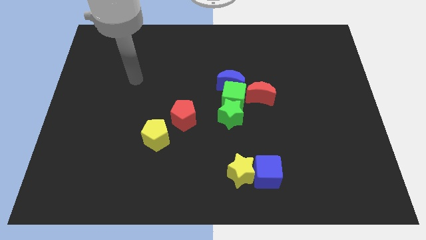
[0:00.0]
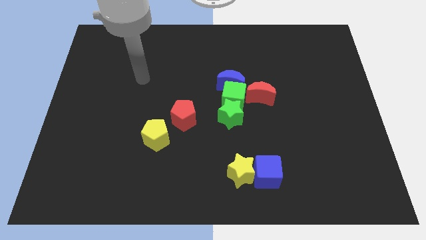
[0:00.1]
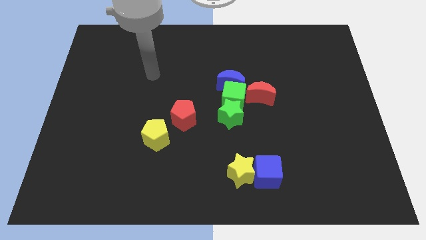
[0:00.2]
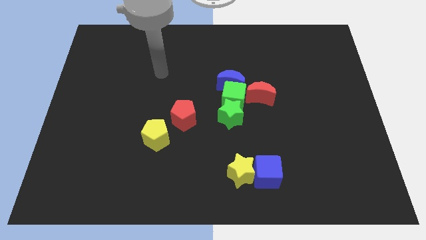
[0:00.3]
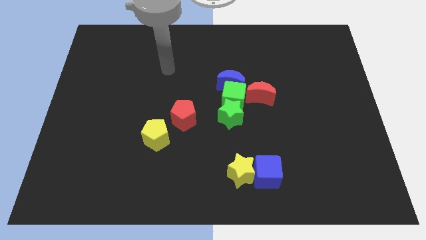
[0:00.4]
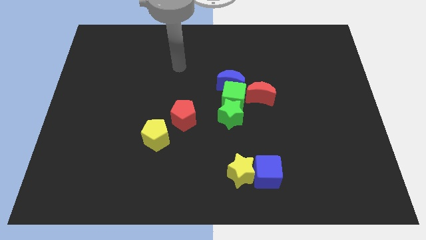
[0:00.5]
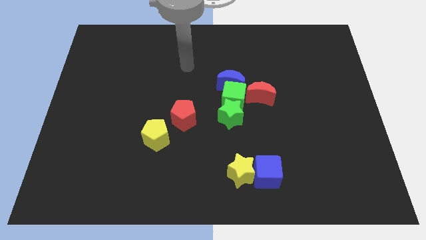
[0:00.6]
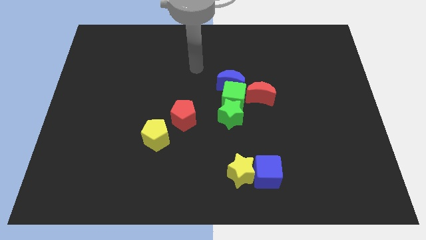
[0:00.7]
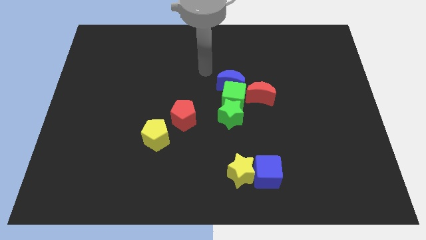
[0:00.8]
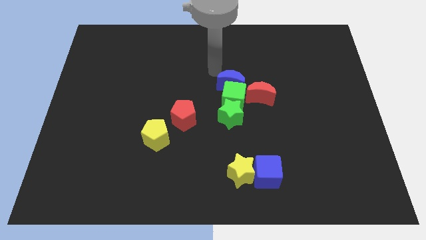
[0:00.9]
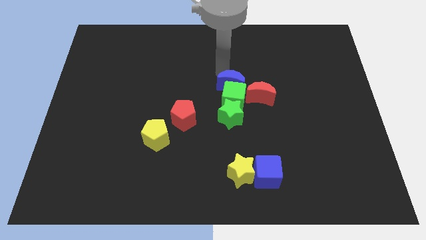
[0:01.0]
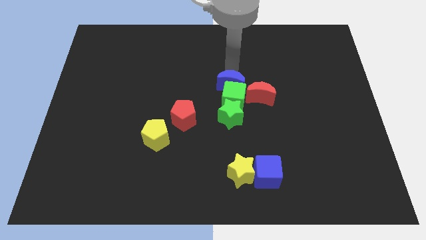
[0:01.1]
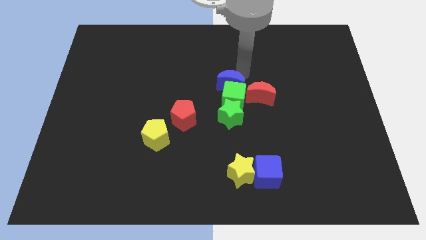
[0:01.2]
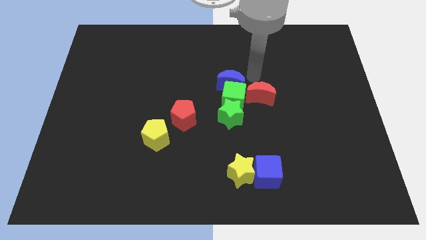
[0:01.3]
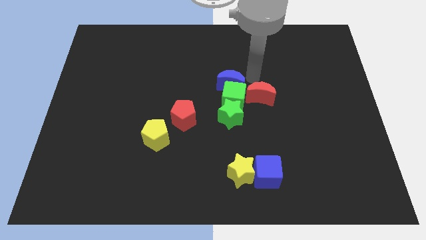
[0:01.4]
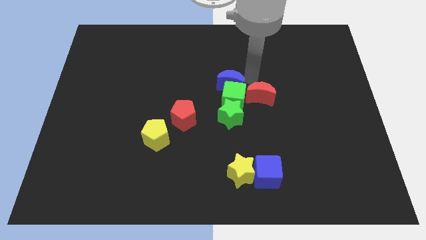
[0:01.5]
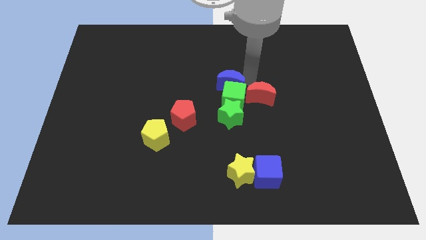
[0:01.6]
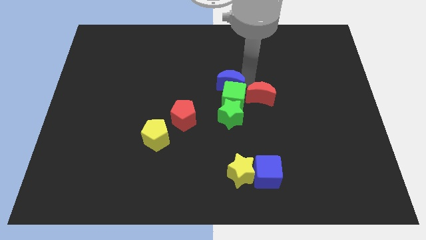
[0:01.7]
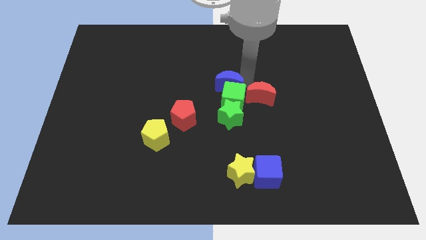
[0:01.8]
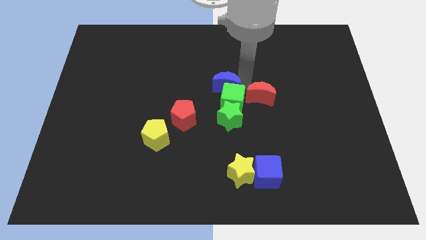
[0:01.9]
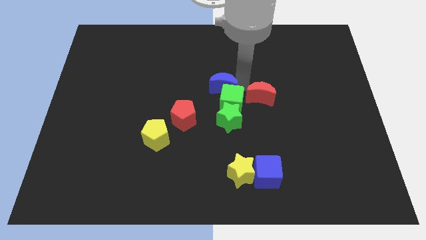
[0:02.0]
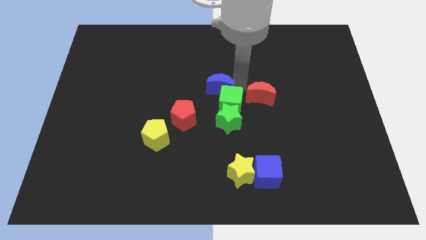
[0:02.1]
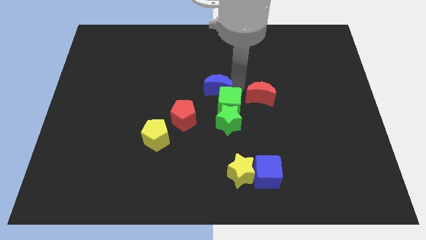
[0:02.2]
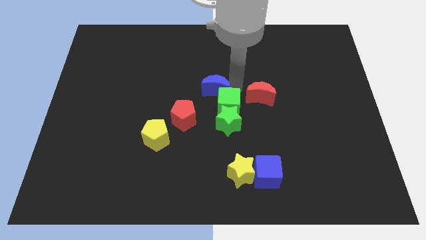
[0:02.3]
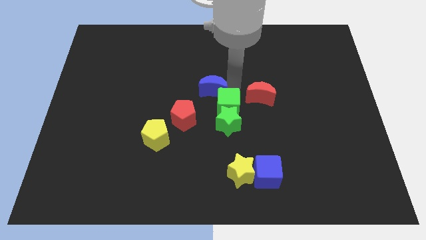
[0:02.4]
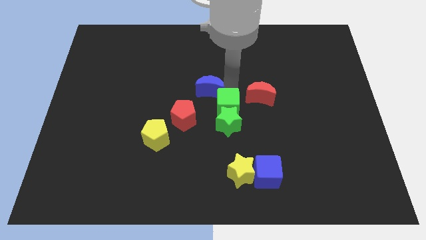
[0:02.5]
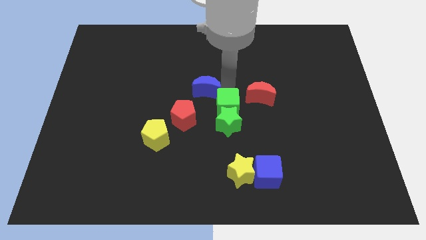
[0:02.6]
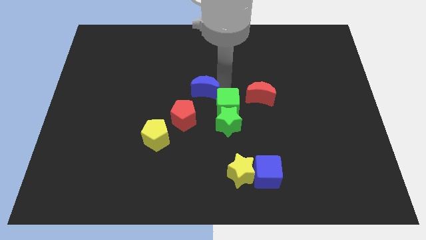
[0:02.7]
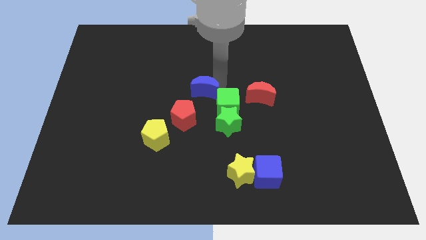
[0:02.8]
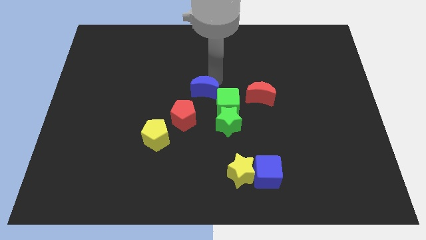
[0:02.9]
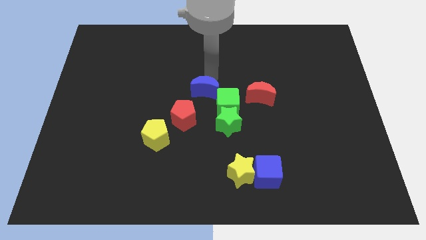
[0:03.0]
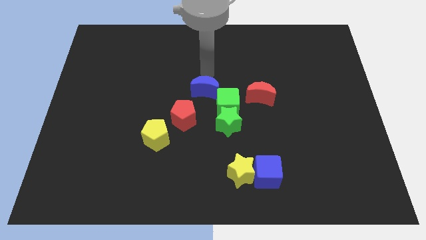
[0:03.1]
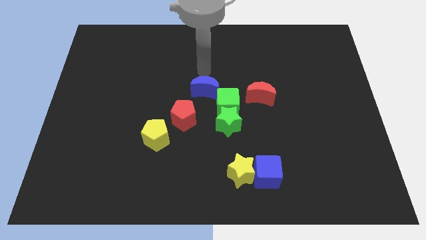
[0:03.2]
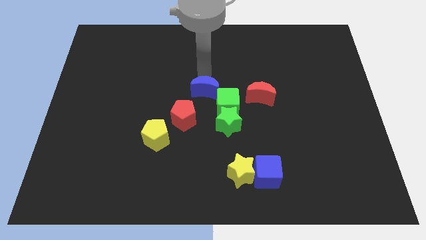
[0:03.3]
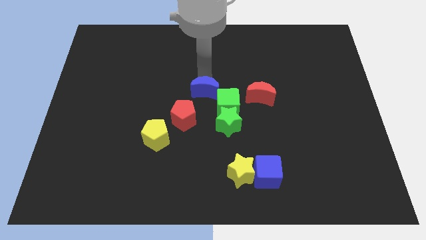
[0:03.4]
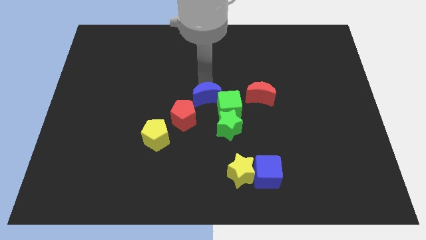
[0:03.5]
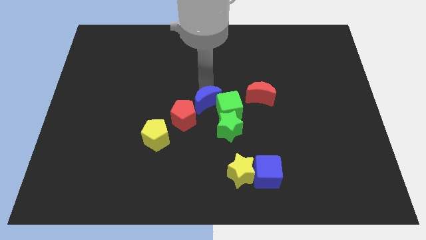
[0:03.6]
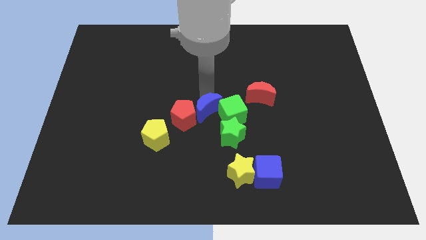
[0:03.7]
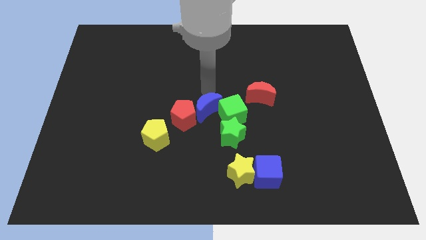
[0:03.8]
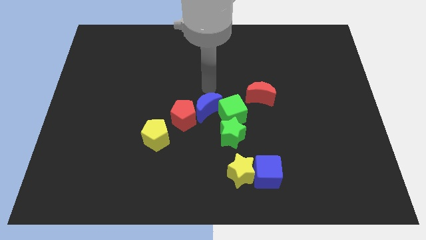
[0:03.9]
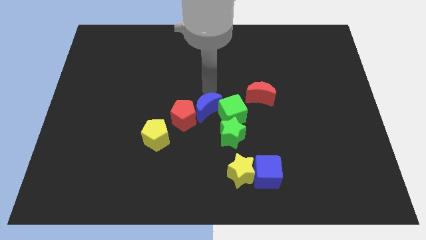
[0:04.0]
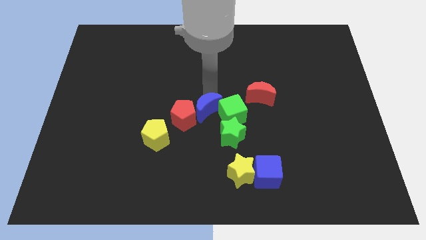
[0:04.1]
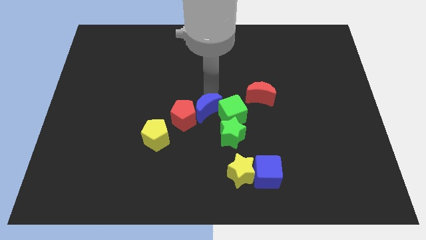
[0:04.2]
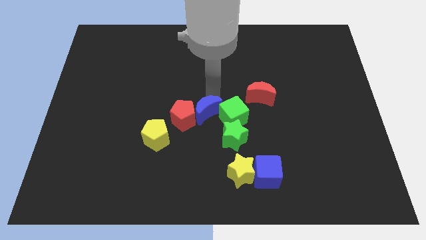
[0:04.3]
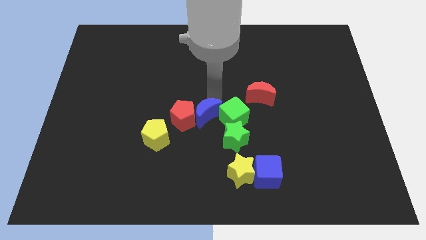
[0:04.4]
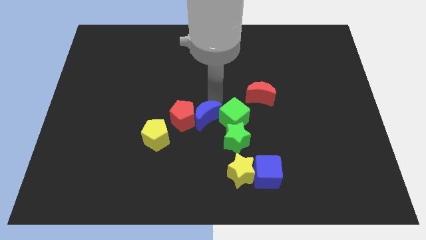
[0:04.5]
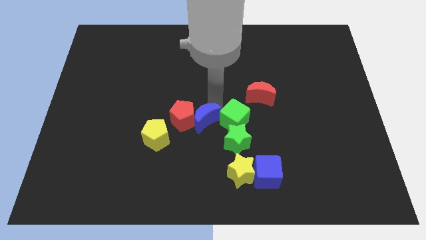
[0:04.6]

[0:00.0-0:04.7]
slide the blue moon just right of the yellow pentagon

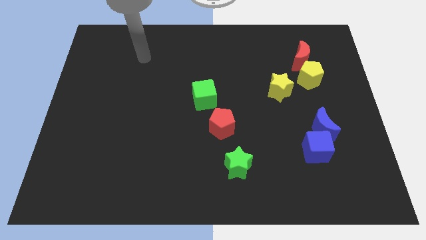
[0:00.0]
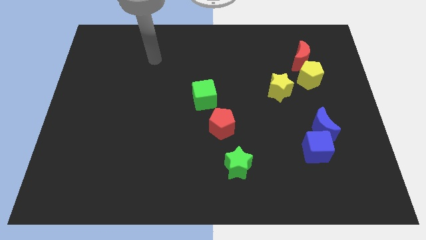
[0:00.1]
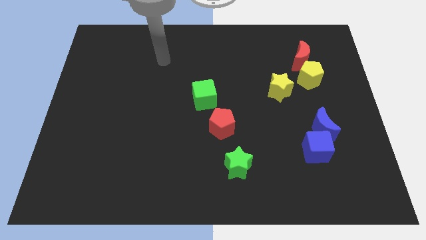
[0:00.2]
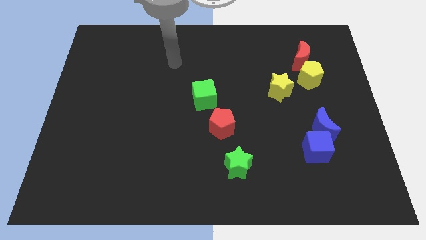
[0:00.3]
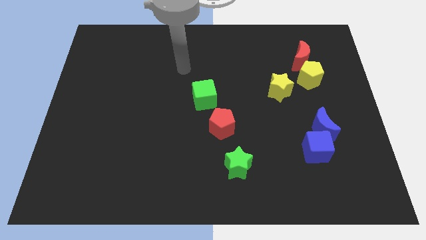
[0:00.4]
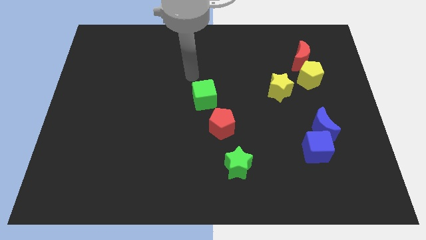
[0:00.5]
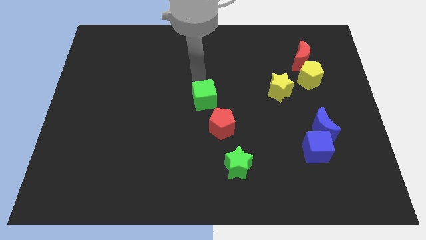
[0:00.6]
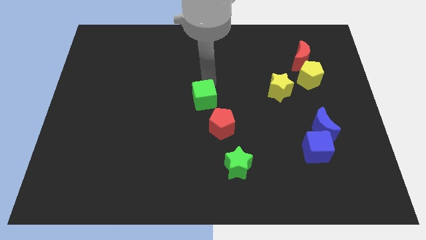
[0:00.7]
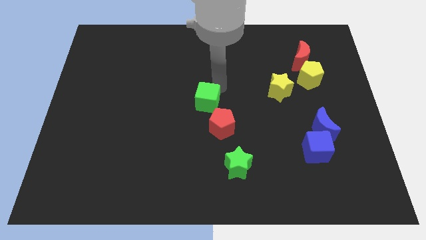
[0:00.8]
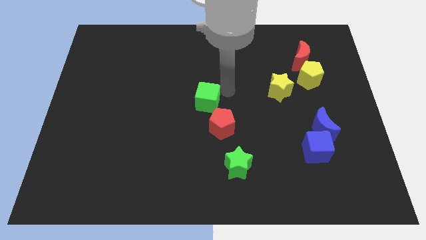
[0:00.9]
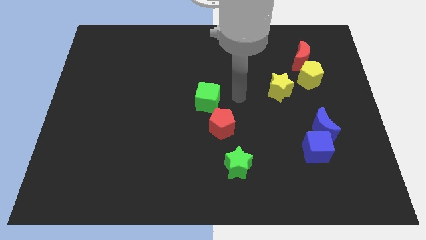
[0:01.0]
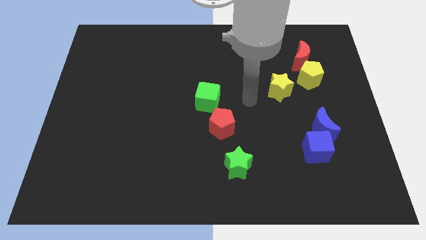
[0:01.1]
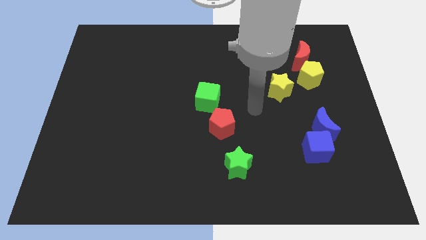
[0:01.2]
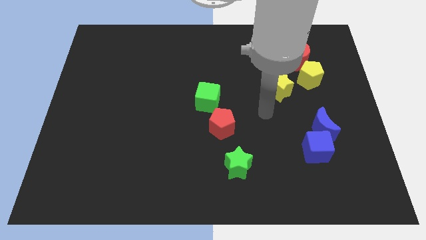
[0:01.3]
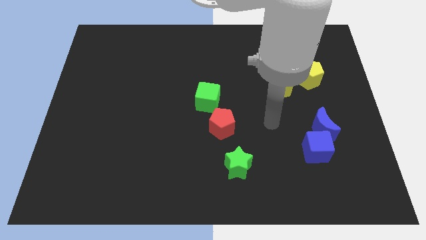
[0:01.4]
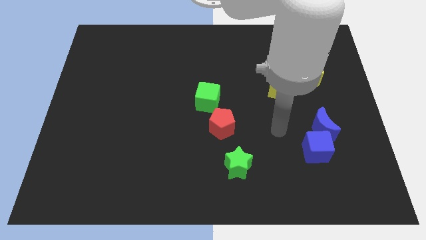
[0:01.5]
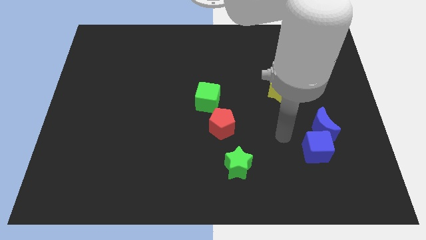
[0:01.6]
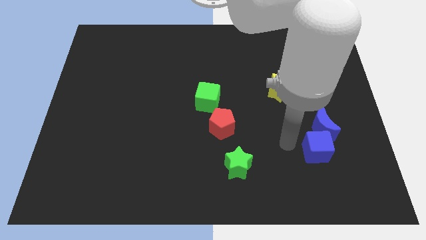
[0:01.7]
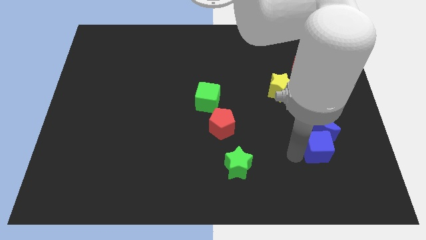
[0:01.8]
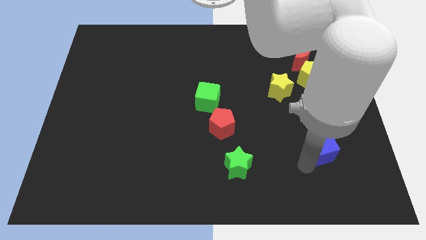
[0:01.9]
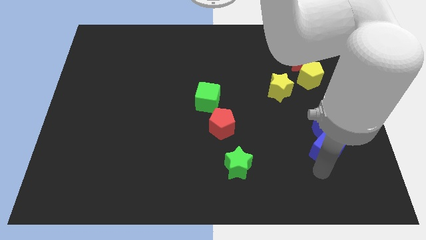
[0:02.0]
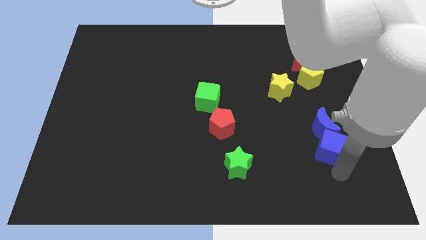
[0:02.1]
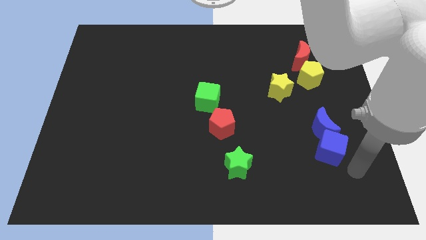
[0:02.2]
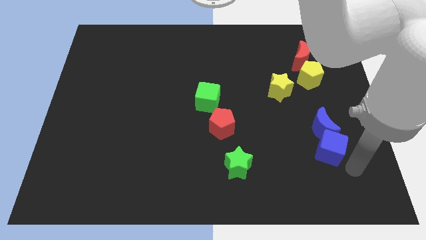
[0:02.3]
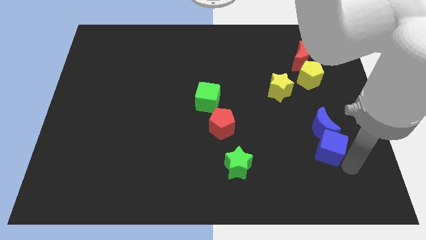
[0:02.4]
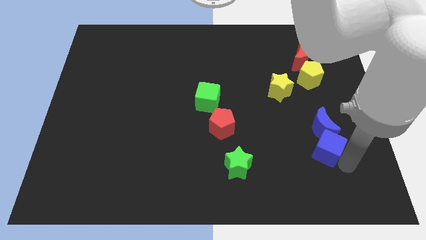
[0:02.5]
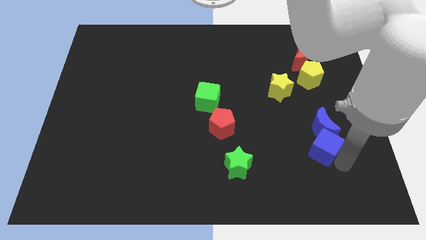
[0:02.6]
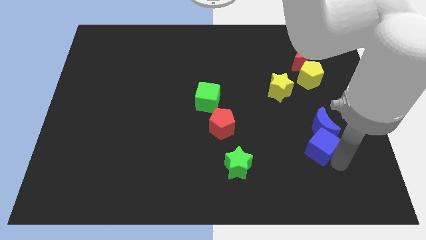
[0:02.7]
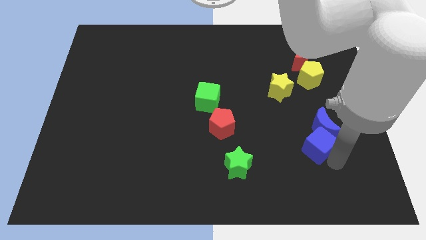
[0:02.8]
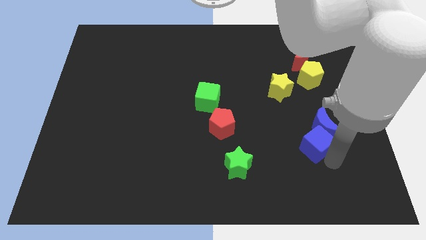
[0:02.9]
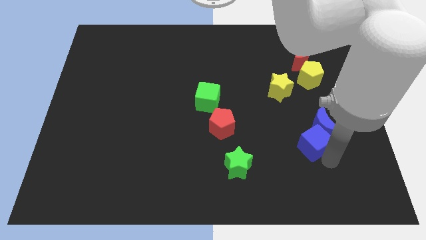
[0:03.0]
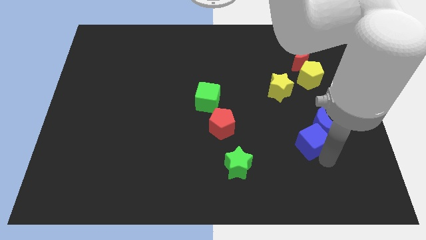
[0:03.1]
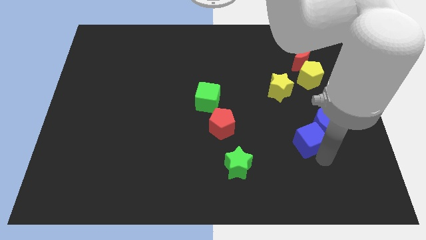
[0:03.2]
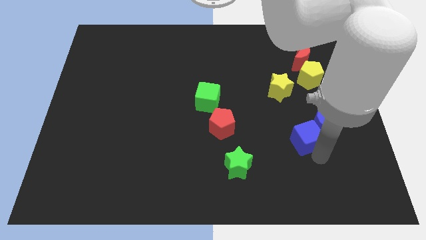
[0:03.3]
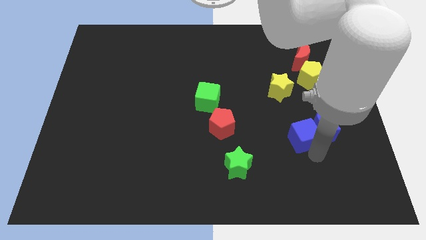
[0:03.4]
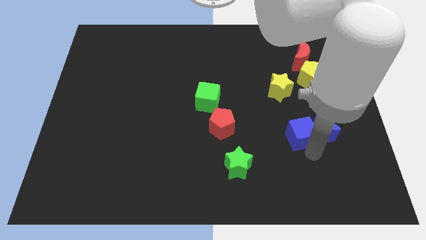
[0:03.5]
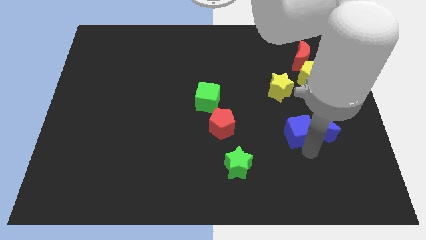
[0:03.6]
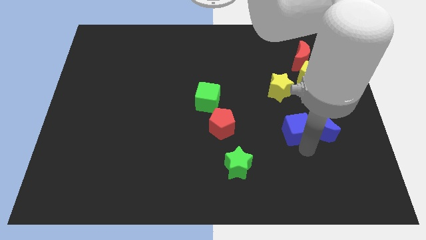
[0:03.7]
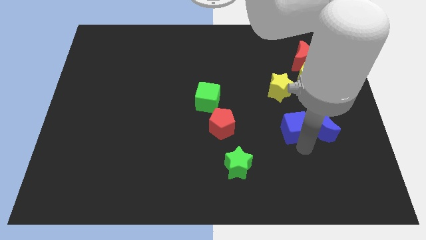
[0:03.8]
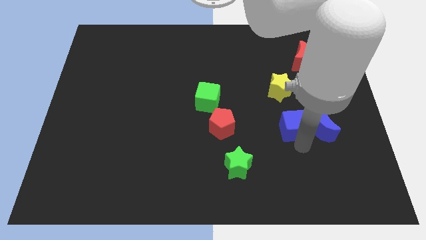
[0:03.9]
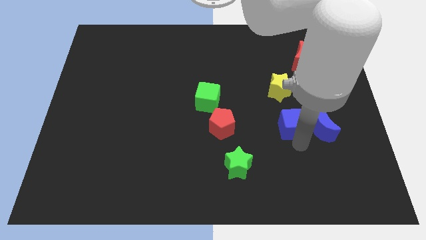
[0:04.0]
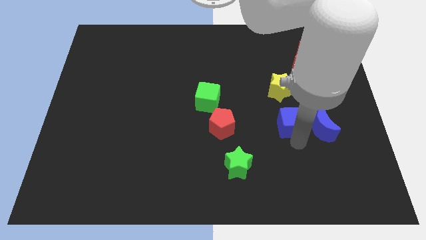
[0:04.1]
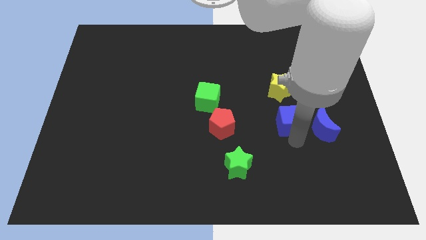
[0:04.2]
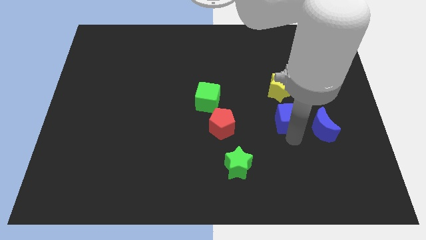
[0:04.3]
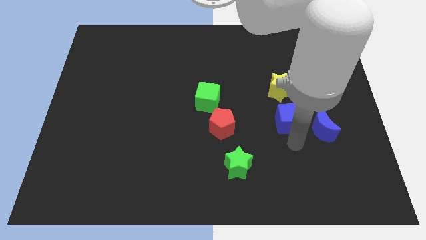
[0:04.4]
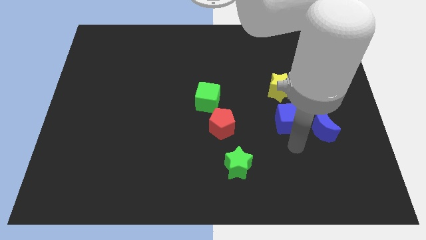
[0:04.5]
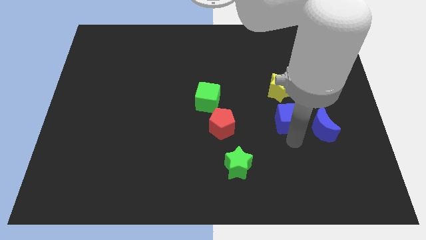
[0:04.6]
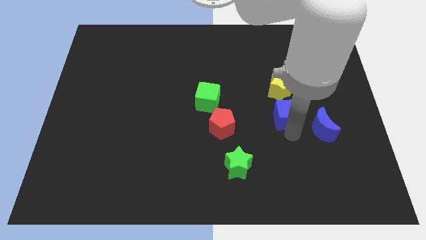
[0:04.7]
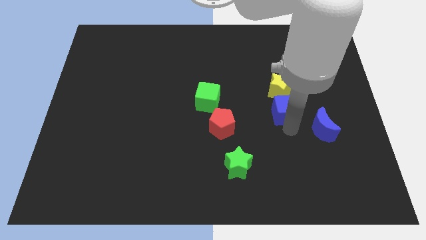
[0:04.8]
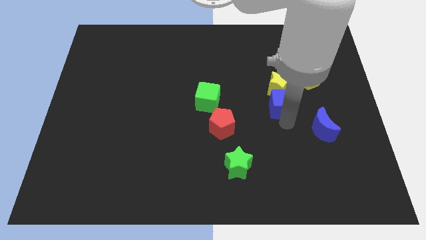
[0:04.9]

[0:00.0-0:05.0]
move the blue cube diagonally down and to the left of the yellow pentagon
